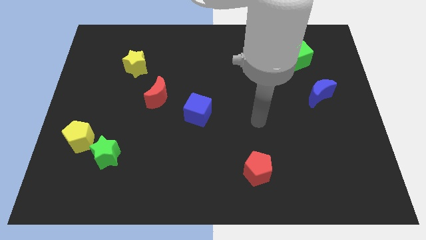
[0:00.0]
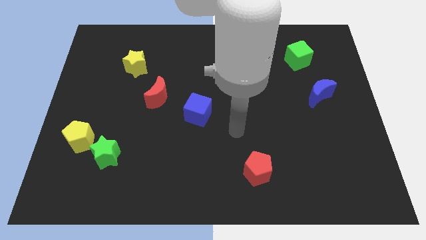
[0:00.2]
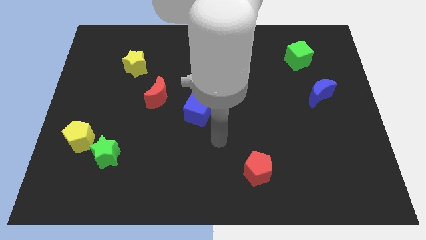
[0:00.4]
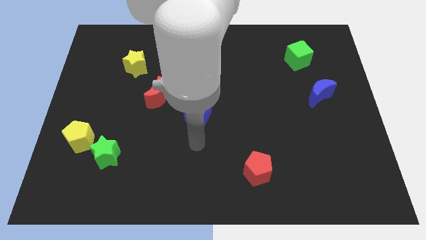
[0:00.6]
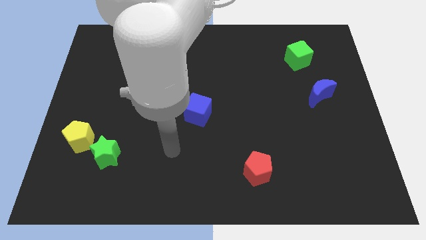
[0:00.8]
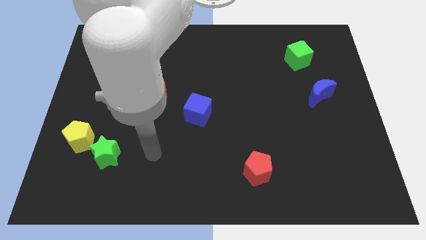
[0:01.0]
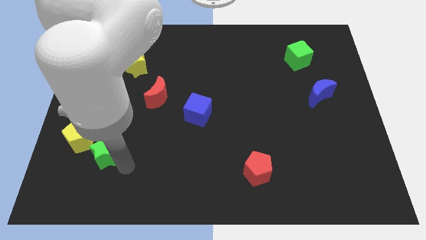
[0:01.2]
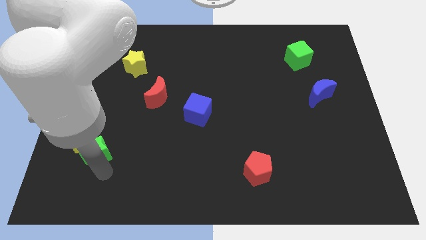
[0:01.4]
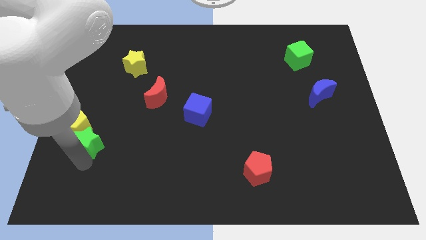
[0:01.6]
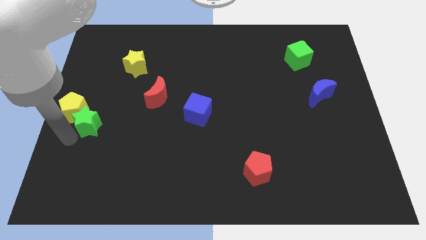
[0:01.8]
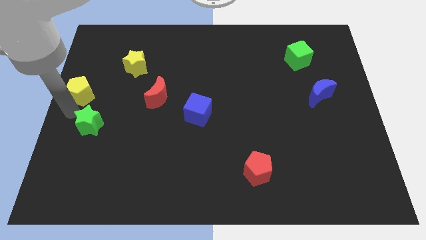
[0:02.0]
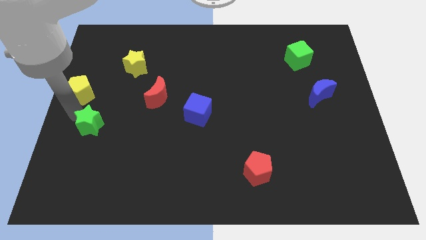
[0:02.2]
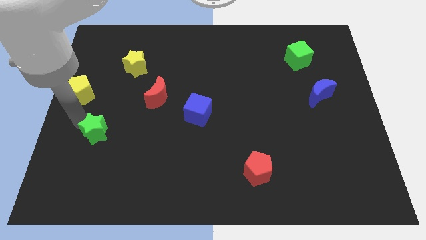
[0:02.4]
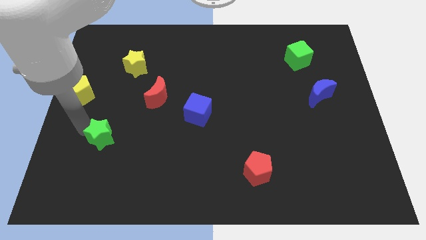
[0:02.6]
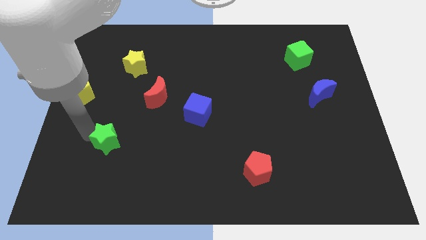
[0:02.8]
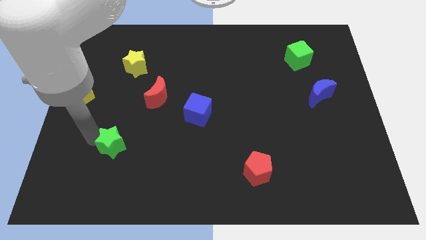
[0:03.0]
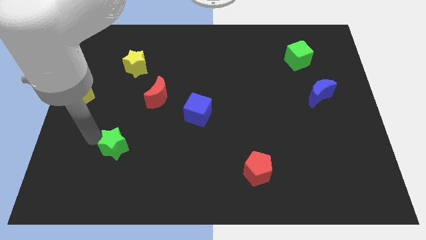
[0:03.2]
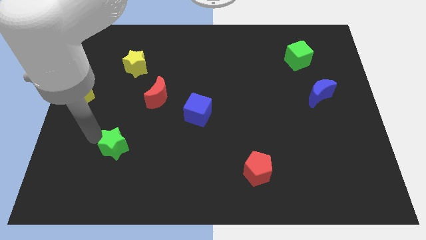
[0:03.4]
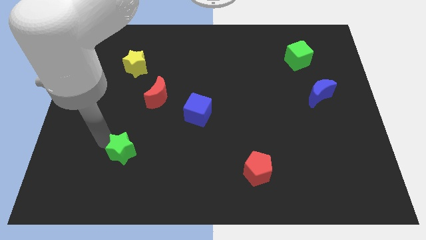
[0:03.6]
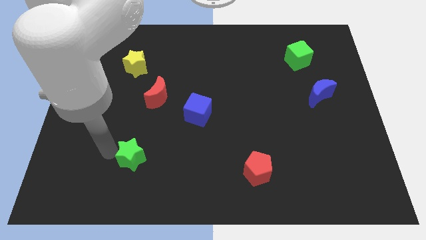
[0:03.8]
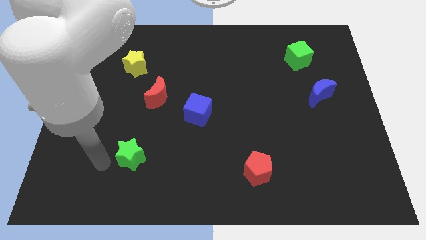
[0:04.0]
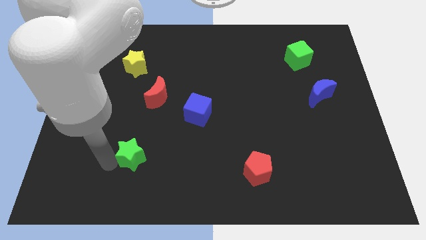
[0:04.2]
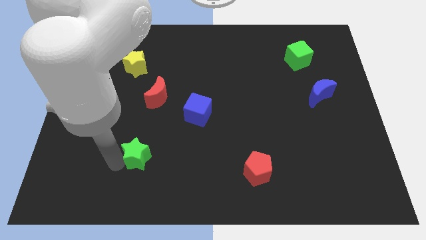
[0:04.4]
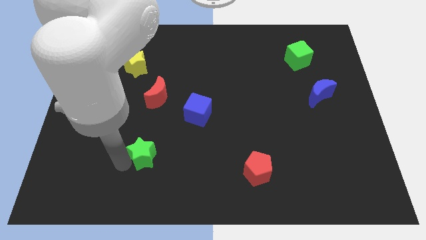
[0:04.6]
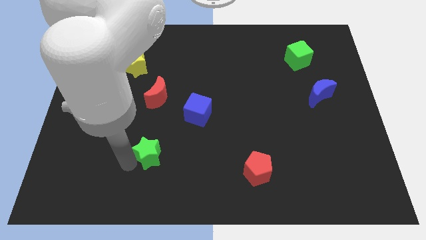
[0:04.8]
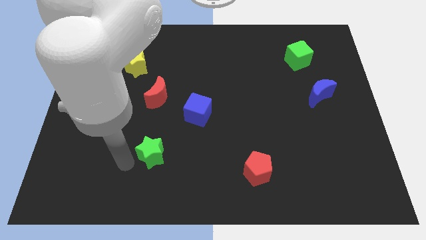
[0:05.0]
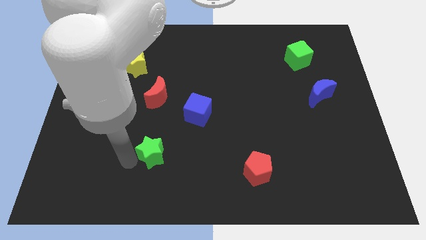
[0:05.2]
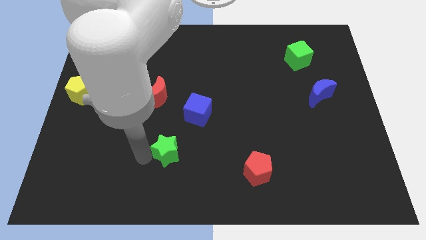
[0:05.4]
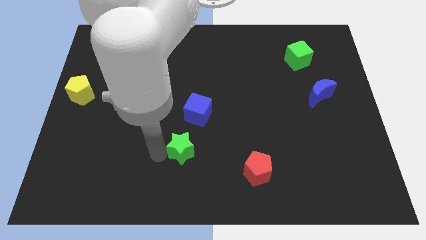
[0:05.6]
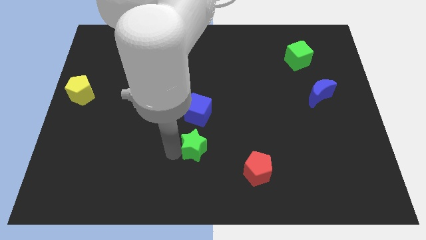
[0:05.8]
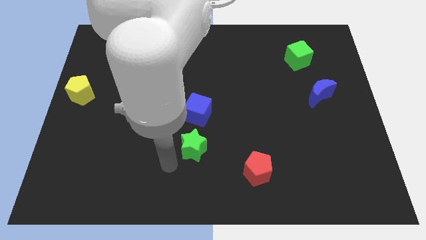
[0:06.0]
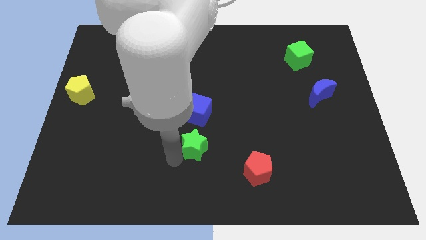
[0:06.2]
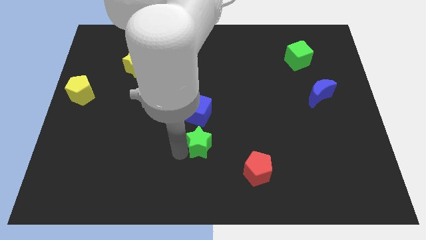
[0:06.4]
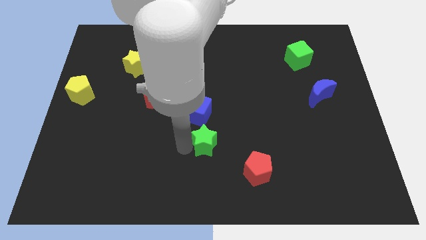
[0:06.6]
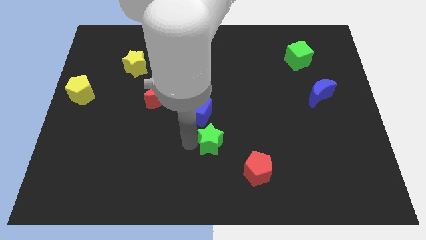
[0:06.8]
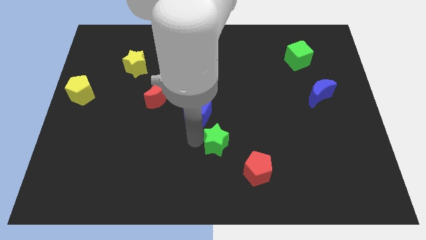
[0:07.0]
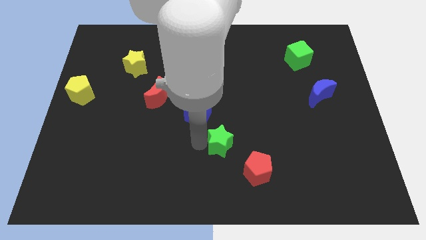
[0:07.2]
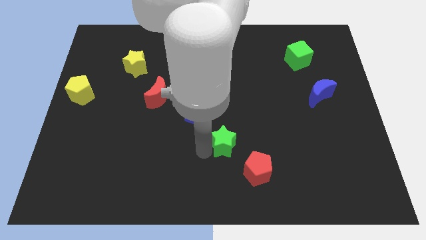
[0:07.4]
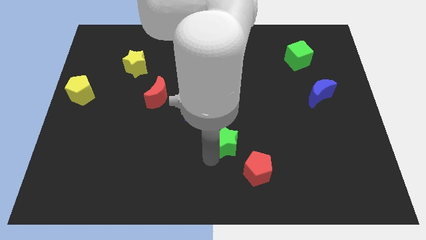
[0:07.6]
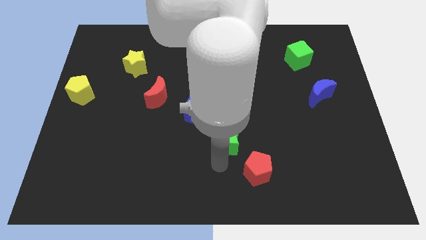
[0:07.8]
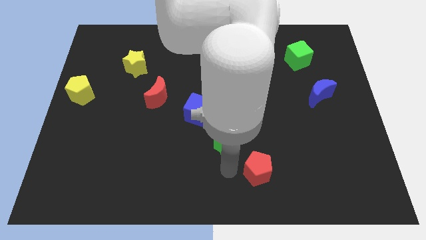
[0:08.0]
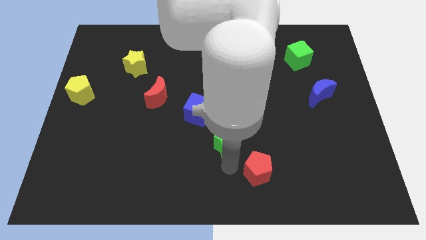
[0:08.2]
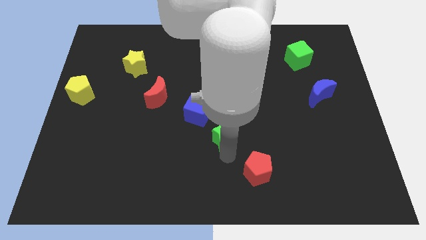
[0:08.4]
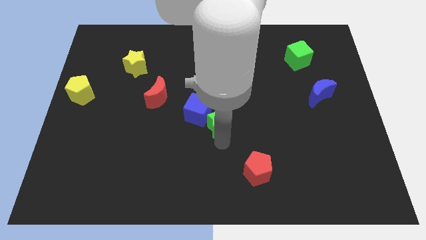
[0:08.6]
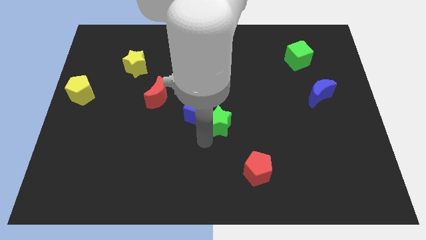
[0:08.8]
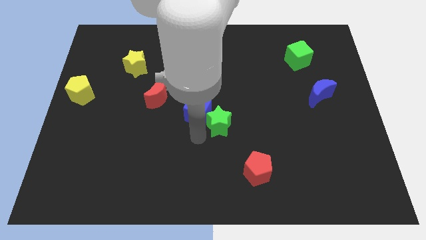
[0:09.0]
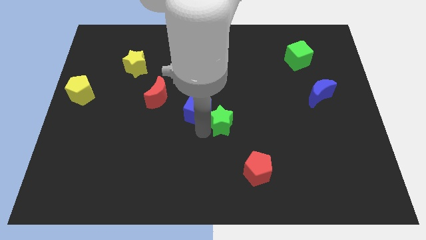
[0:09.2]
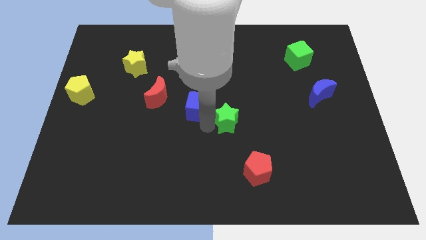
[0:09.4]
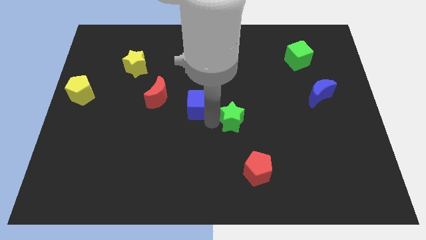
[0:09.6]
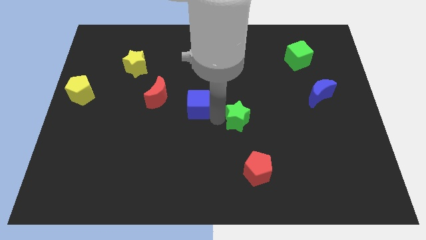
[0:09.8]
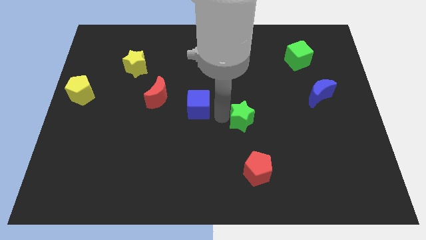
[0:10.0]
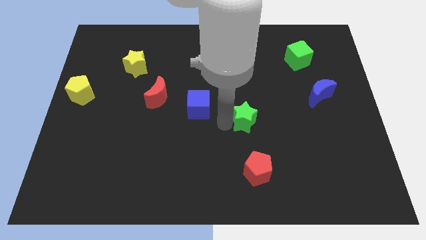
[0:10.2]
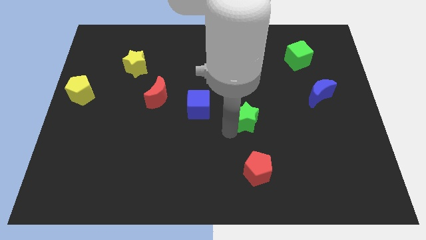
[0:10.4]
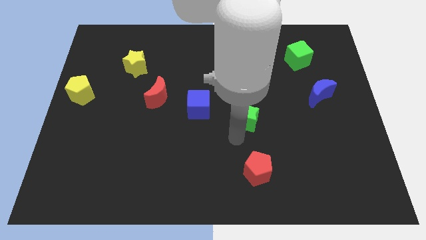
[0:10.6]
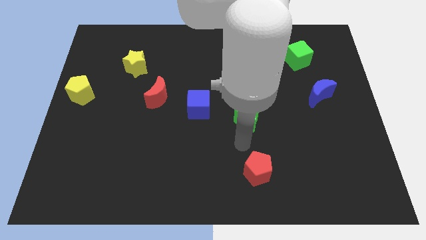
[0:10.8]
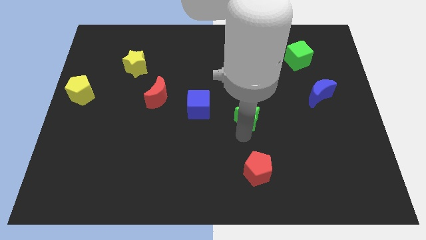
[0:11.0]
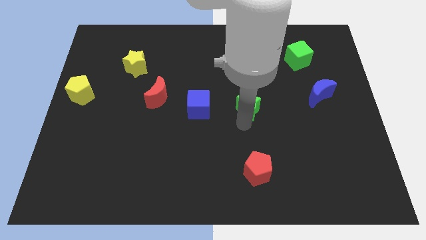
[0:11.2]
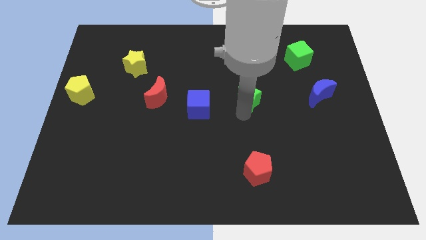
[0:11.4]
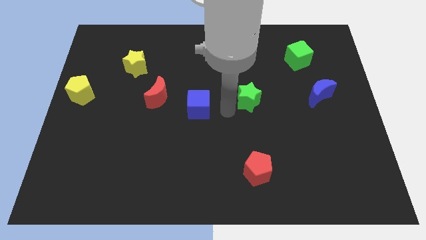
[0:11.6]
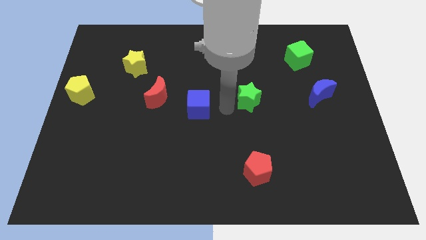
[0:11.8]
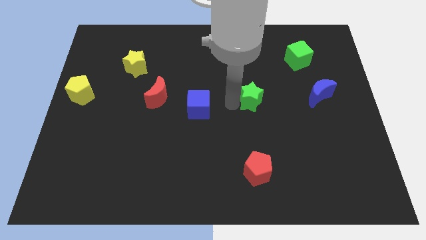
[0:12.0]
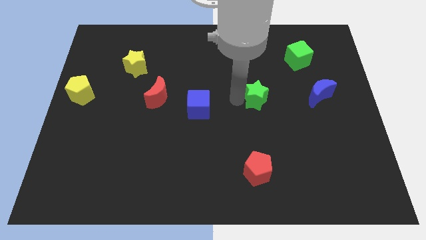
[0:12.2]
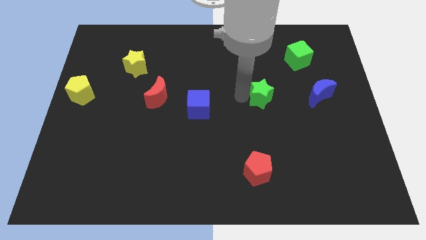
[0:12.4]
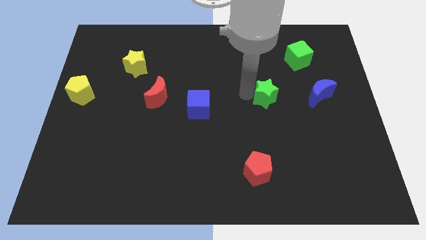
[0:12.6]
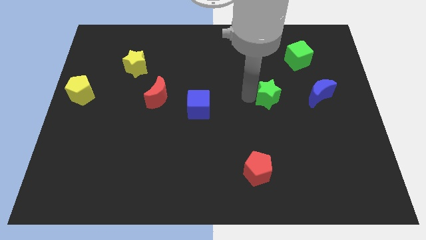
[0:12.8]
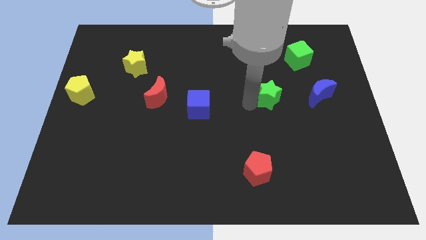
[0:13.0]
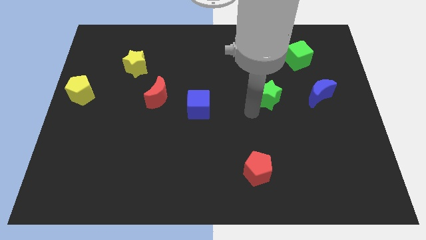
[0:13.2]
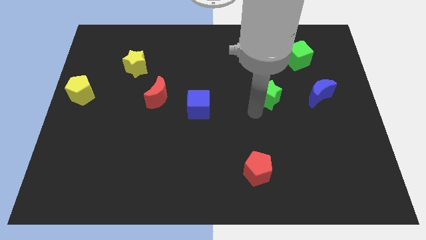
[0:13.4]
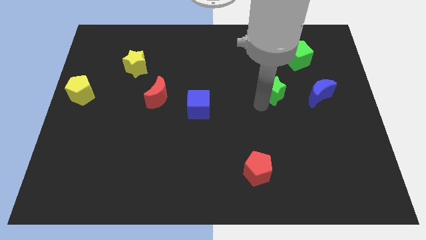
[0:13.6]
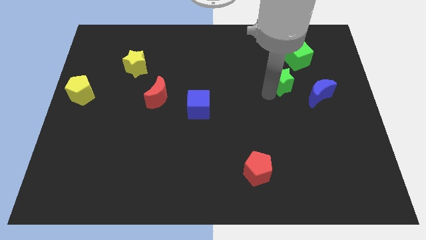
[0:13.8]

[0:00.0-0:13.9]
push the green star to the top left of the blue moon

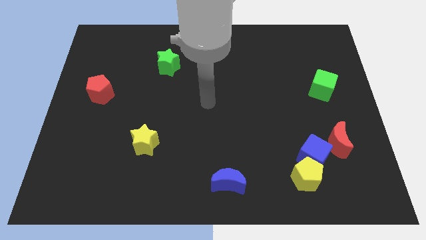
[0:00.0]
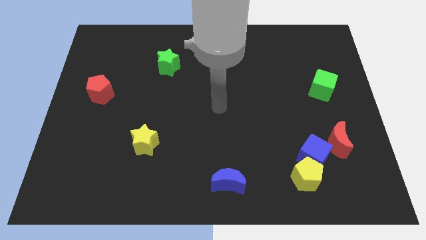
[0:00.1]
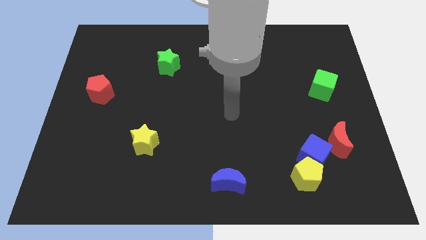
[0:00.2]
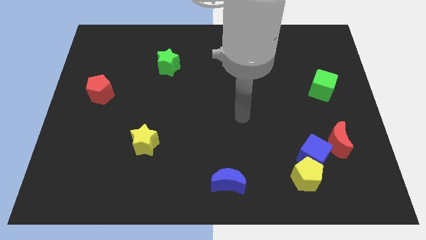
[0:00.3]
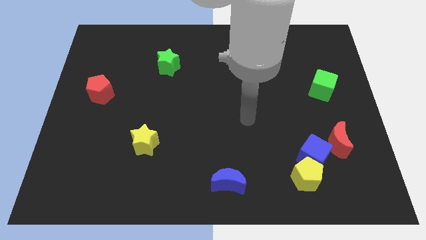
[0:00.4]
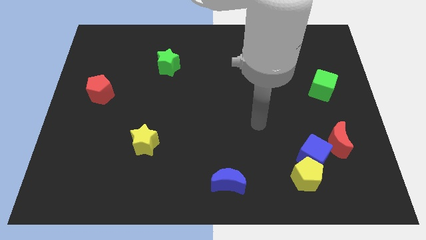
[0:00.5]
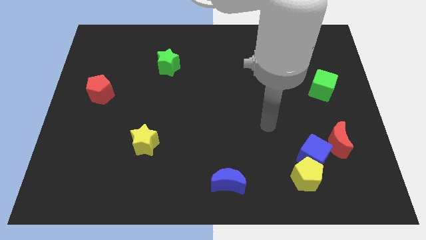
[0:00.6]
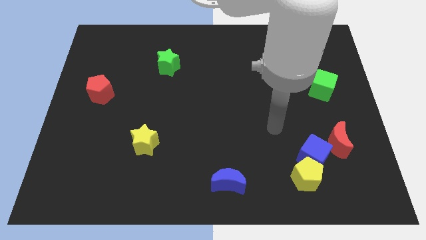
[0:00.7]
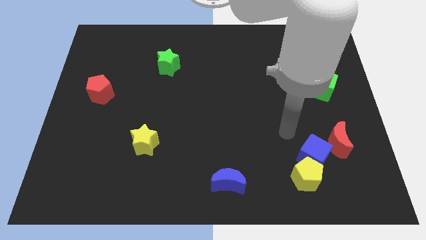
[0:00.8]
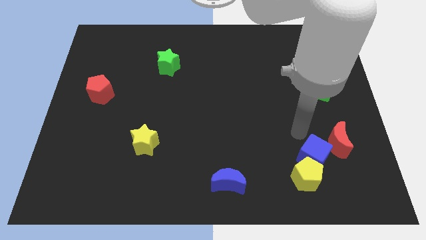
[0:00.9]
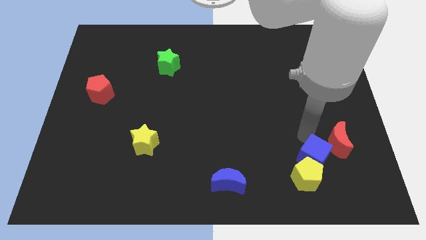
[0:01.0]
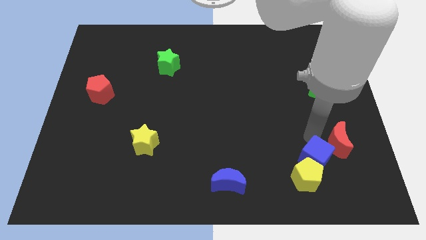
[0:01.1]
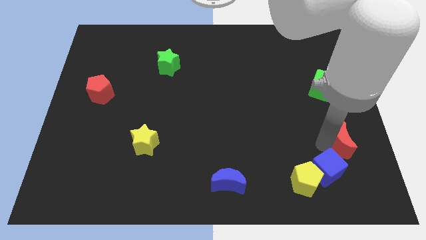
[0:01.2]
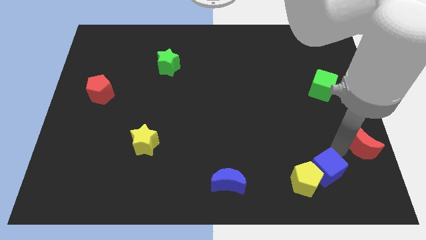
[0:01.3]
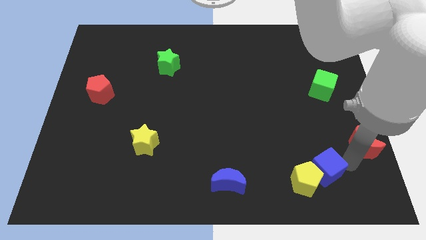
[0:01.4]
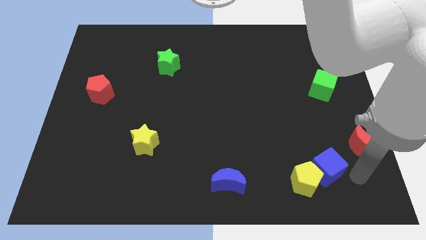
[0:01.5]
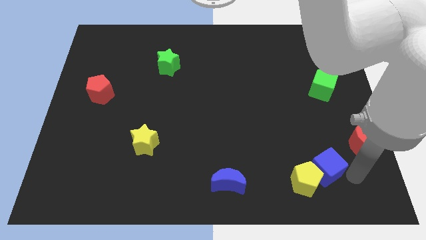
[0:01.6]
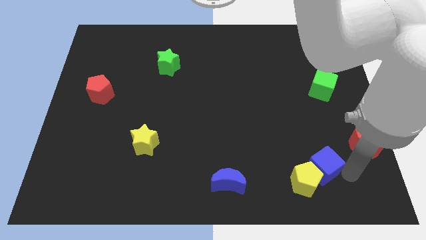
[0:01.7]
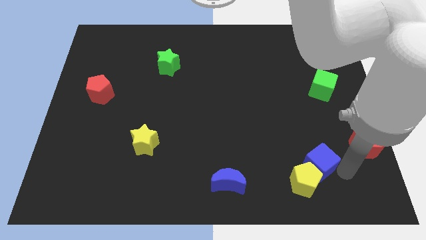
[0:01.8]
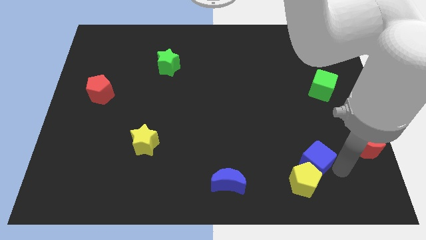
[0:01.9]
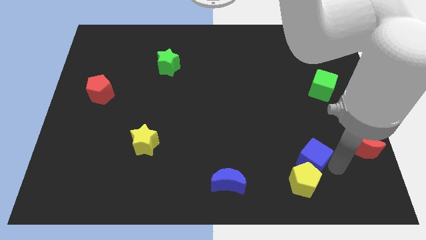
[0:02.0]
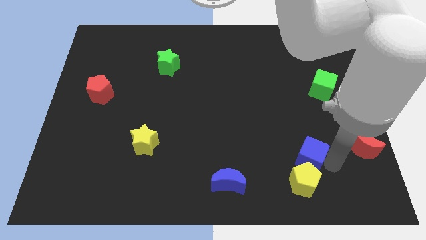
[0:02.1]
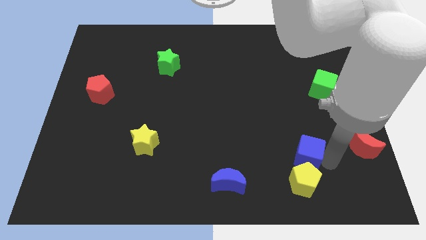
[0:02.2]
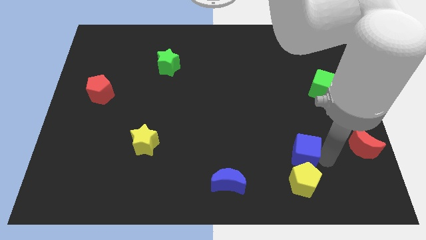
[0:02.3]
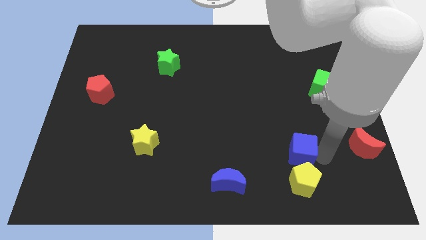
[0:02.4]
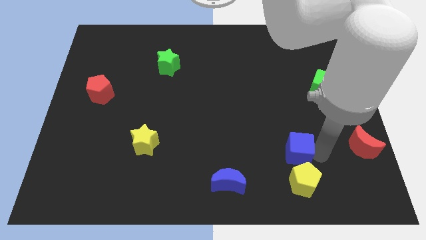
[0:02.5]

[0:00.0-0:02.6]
slide the blue cube to the top left of the yellow pentagon
